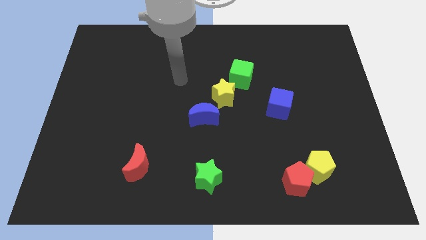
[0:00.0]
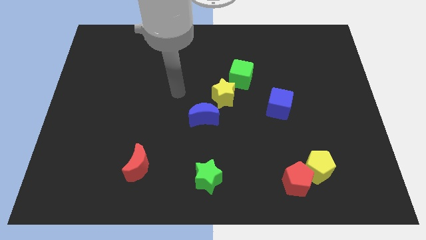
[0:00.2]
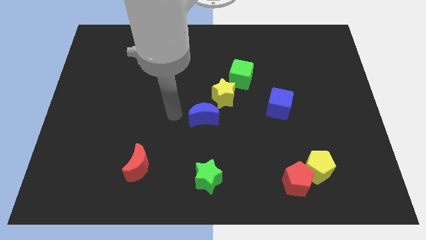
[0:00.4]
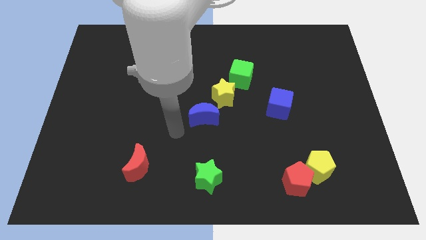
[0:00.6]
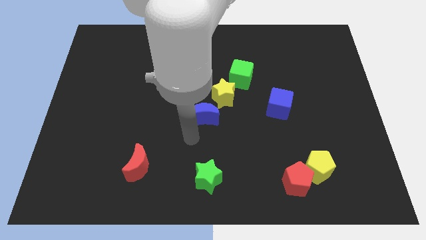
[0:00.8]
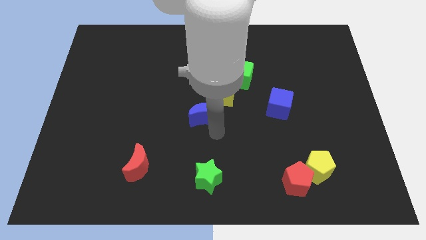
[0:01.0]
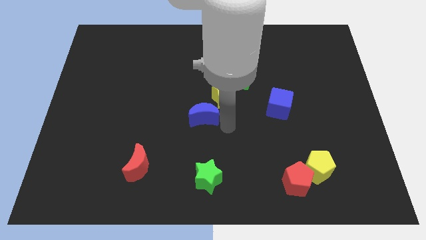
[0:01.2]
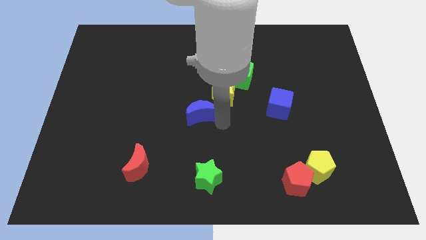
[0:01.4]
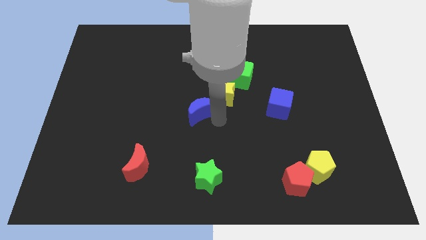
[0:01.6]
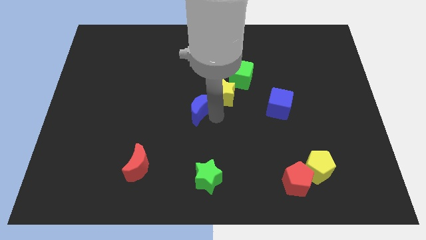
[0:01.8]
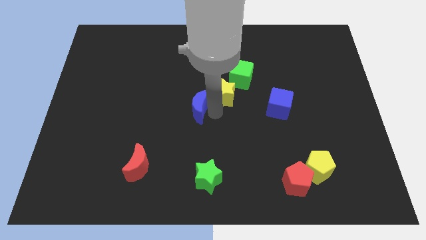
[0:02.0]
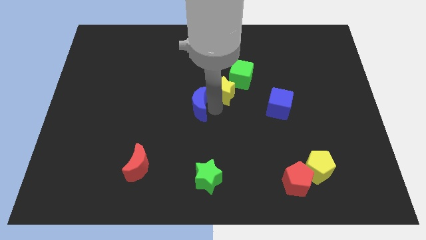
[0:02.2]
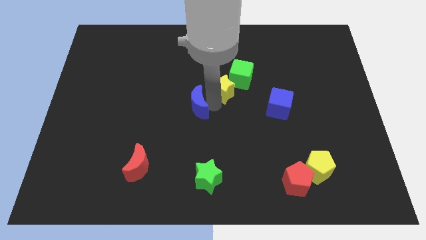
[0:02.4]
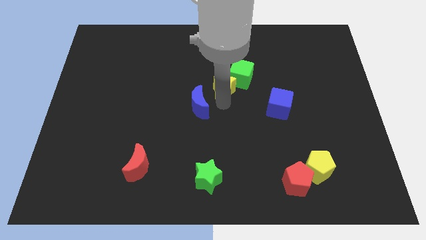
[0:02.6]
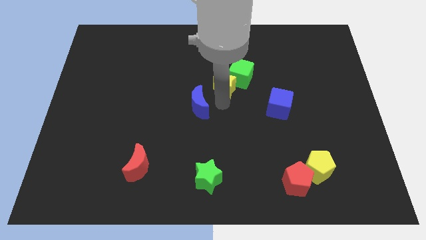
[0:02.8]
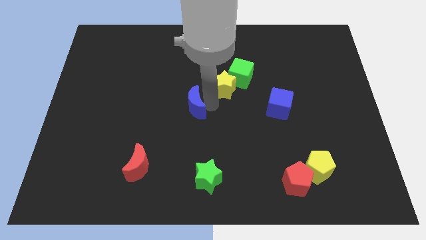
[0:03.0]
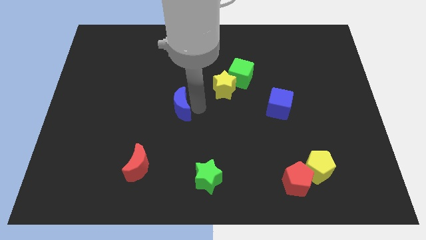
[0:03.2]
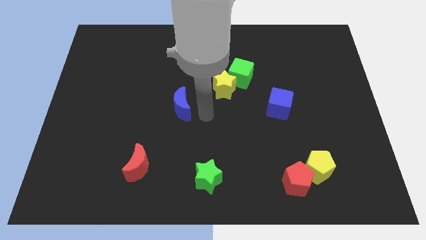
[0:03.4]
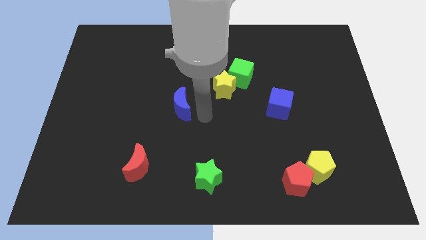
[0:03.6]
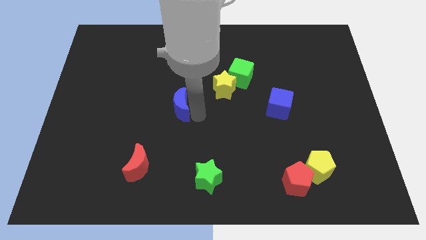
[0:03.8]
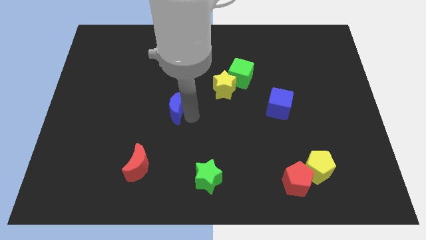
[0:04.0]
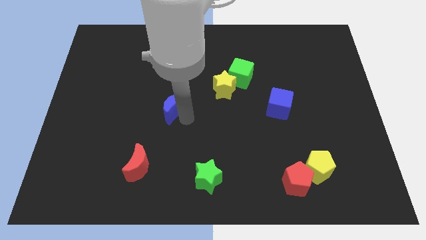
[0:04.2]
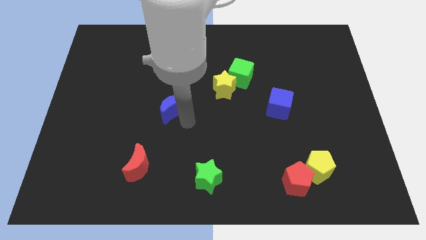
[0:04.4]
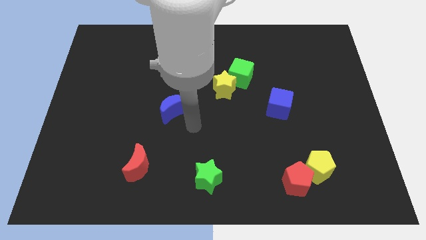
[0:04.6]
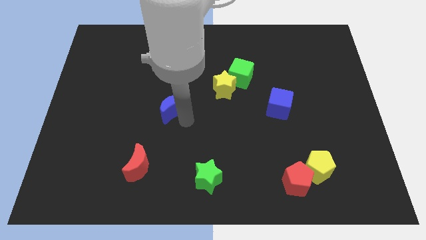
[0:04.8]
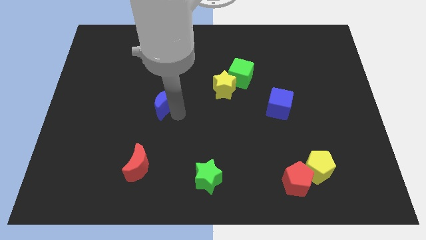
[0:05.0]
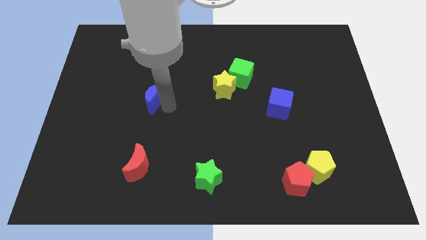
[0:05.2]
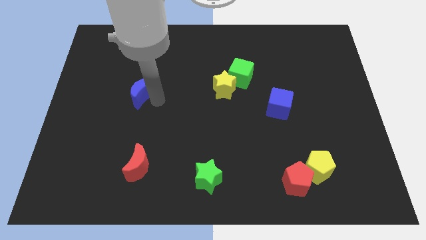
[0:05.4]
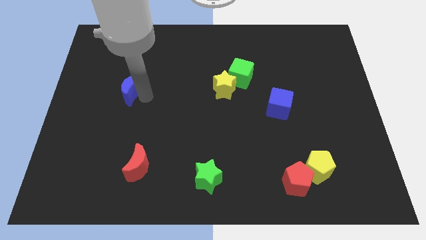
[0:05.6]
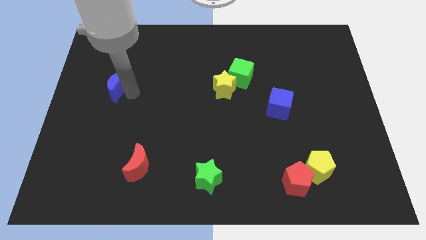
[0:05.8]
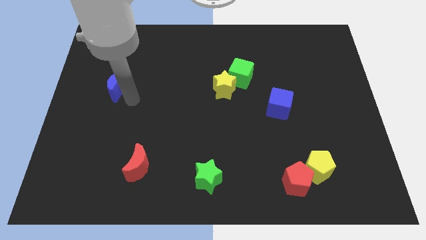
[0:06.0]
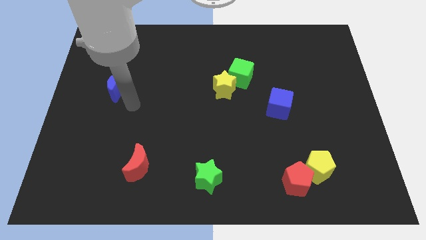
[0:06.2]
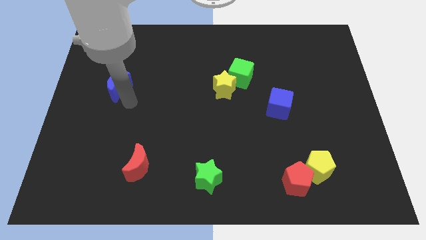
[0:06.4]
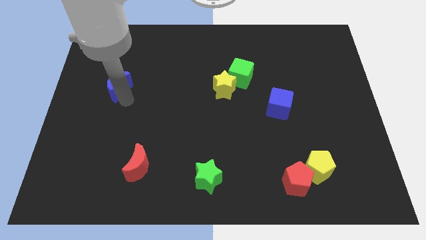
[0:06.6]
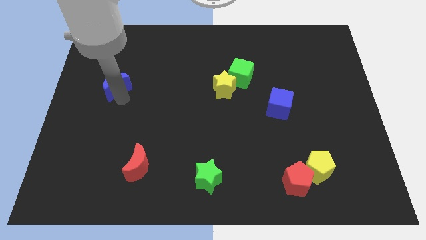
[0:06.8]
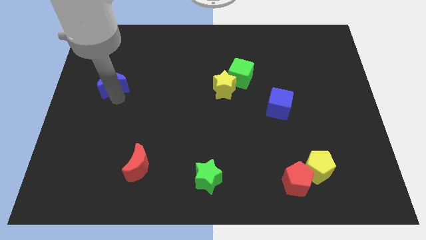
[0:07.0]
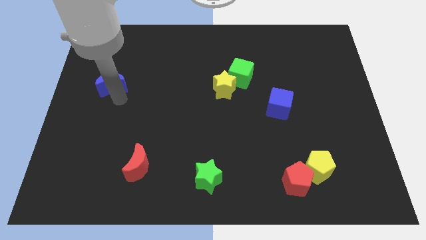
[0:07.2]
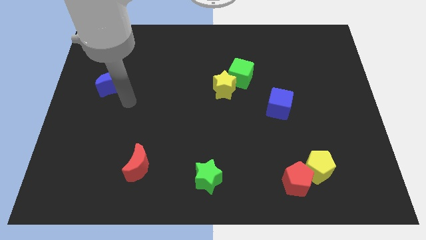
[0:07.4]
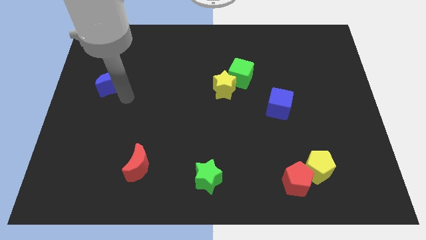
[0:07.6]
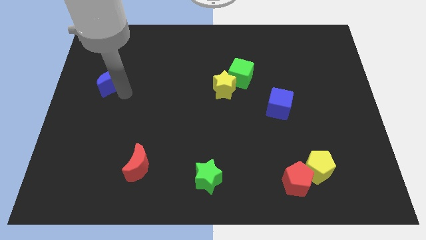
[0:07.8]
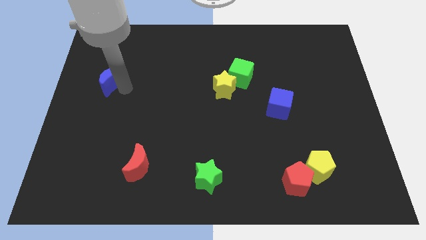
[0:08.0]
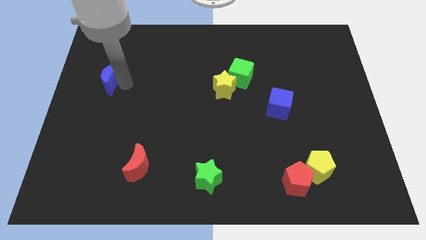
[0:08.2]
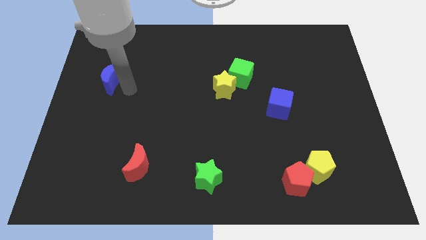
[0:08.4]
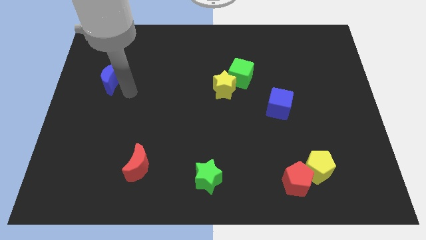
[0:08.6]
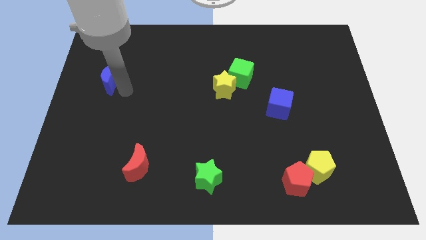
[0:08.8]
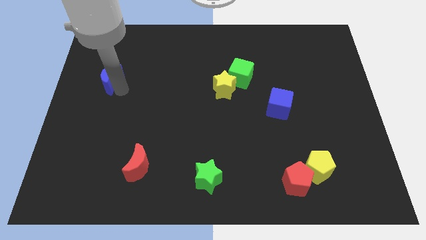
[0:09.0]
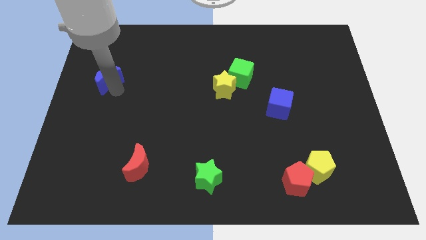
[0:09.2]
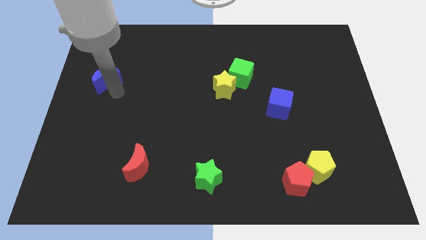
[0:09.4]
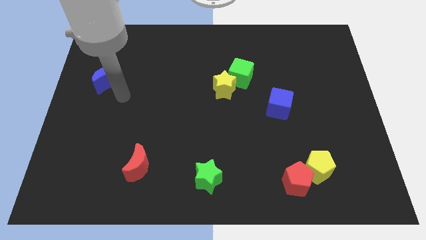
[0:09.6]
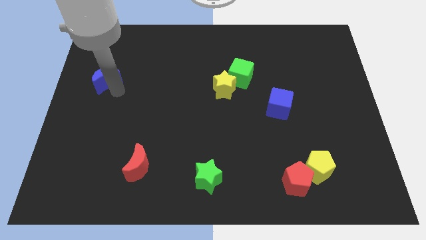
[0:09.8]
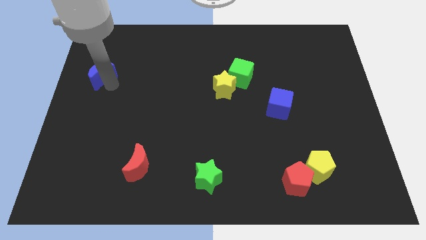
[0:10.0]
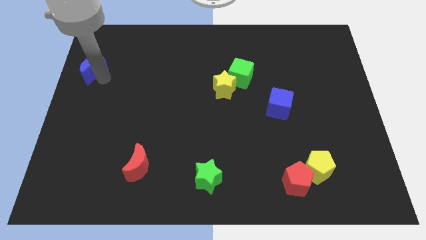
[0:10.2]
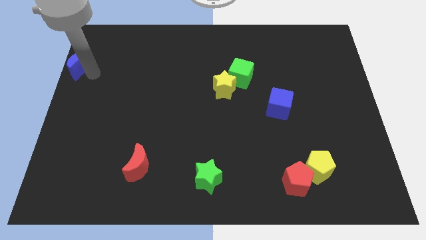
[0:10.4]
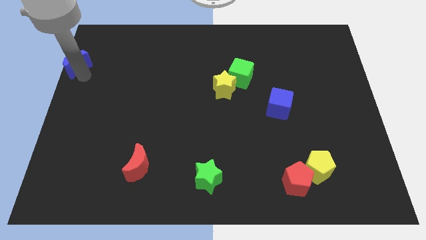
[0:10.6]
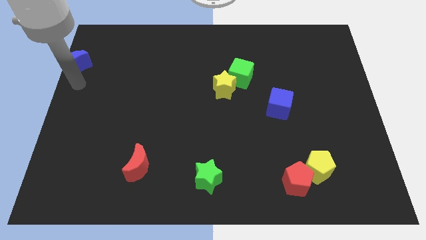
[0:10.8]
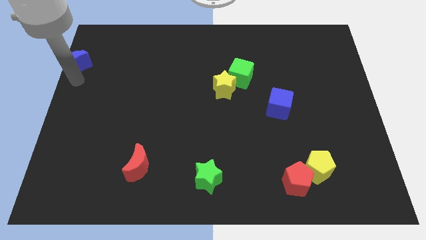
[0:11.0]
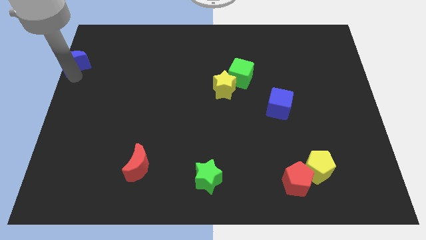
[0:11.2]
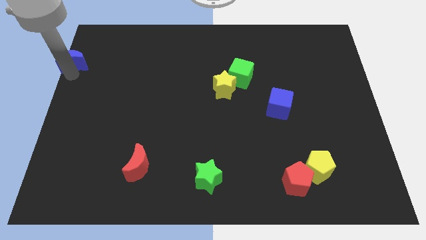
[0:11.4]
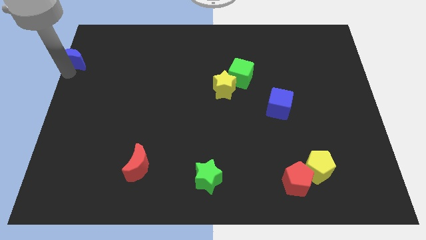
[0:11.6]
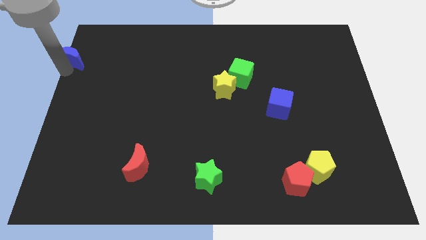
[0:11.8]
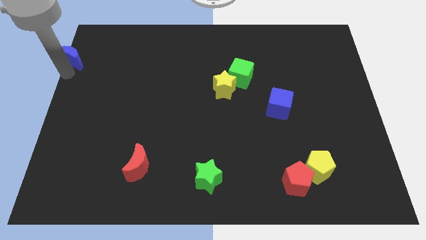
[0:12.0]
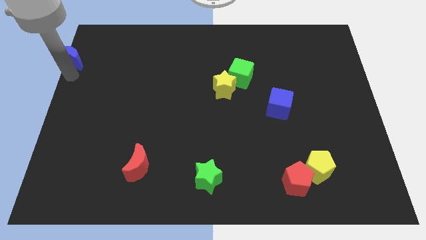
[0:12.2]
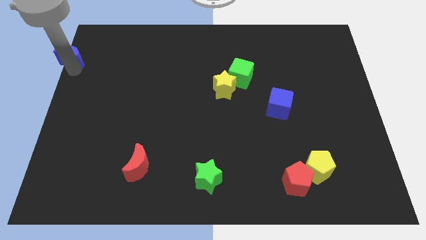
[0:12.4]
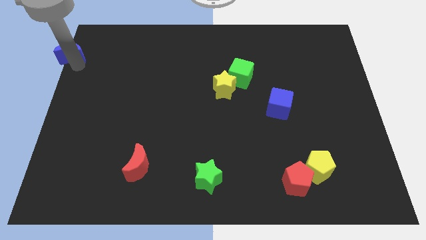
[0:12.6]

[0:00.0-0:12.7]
push the blue moon to the top left
